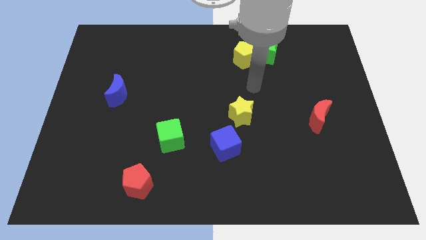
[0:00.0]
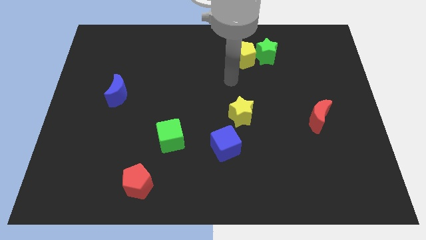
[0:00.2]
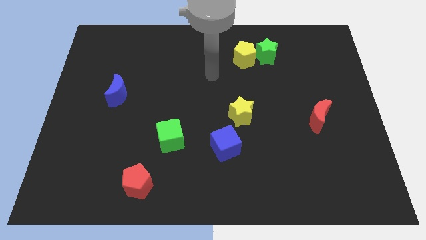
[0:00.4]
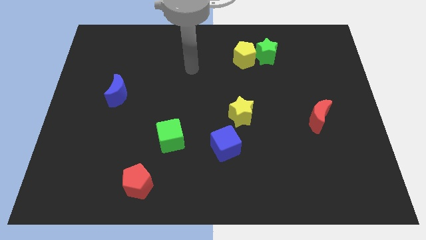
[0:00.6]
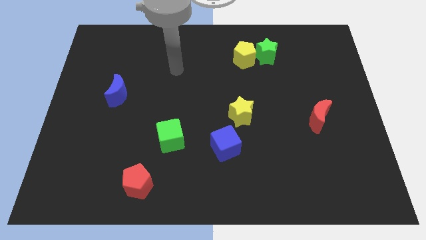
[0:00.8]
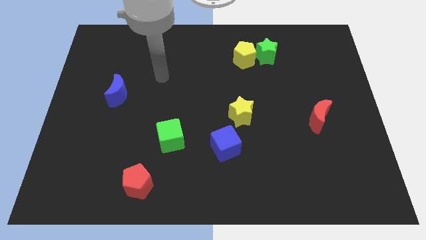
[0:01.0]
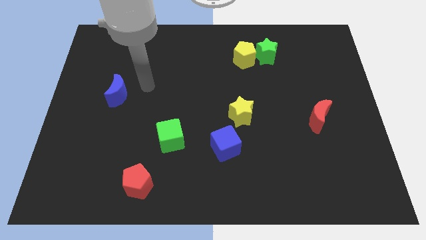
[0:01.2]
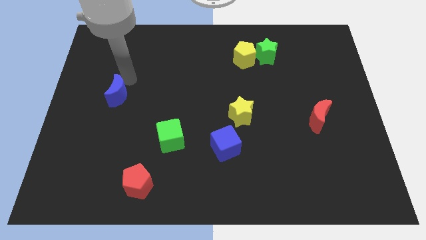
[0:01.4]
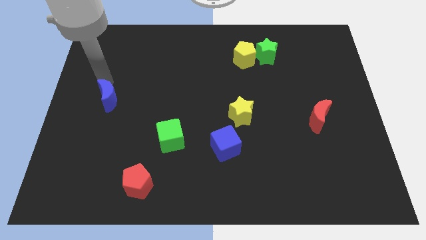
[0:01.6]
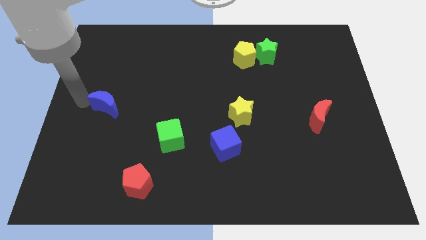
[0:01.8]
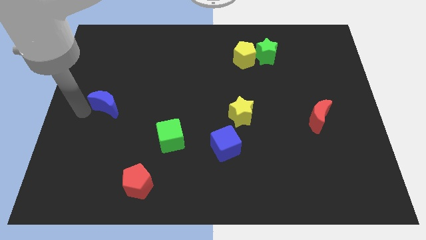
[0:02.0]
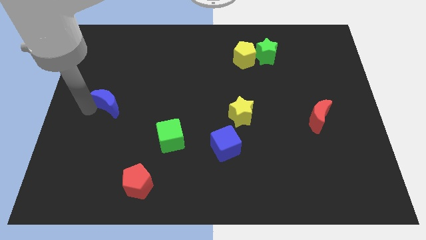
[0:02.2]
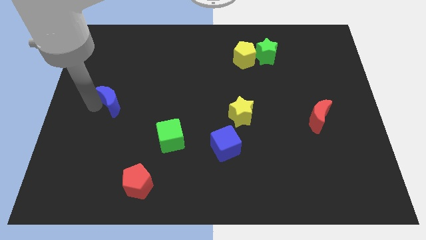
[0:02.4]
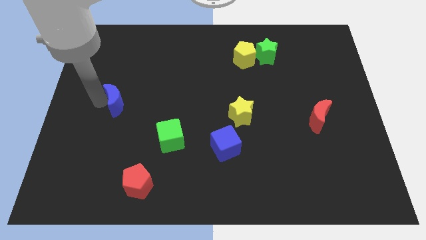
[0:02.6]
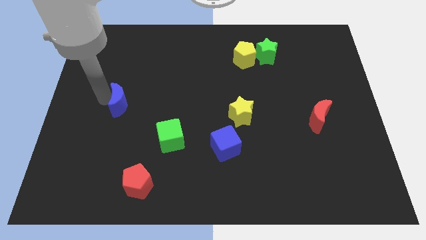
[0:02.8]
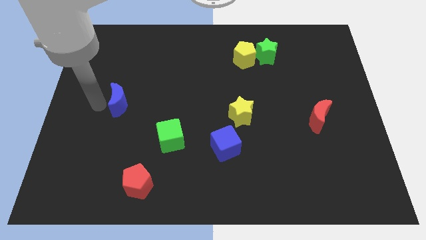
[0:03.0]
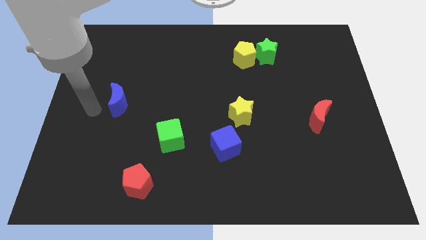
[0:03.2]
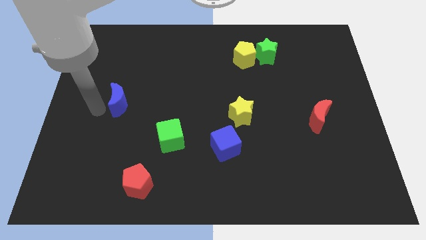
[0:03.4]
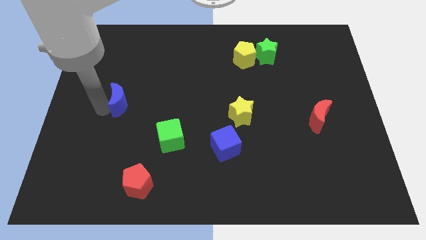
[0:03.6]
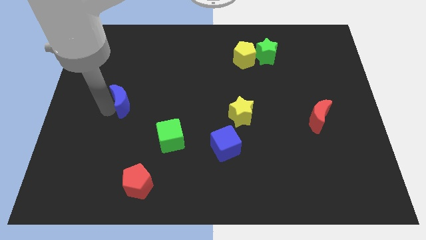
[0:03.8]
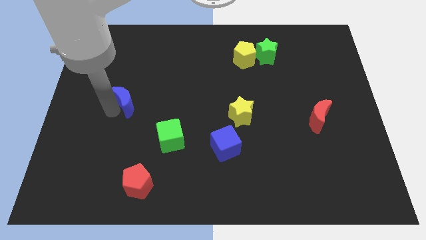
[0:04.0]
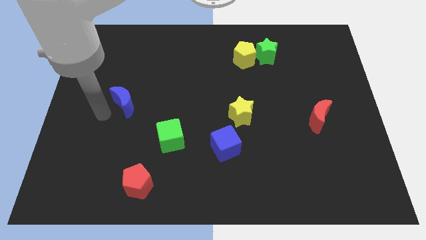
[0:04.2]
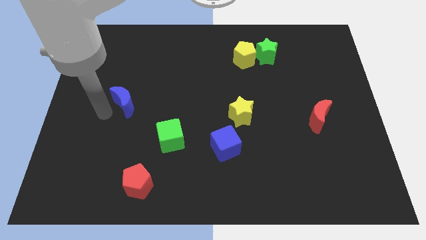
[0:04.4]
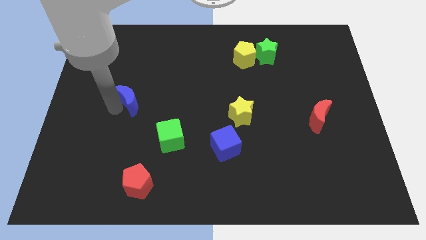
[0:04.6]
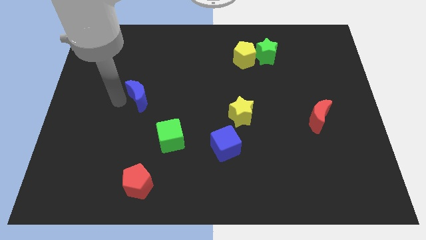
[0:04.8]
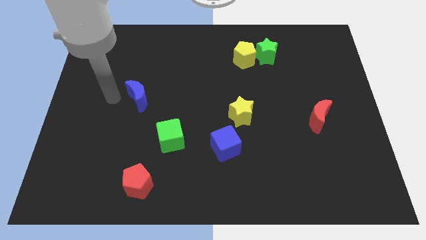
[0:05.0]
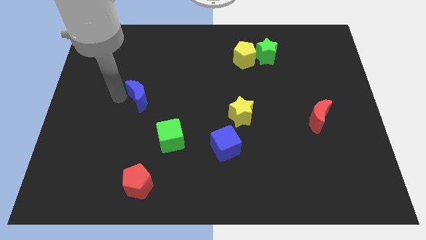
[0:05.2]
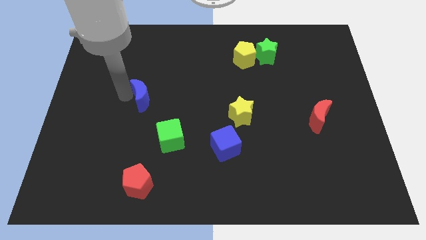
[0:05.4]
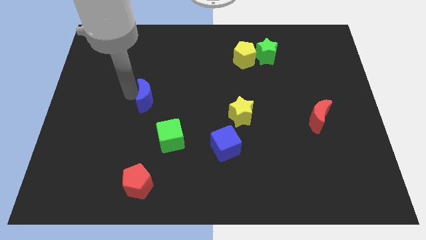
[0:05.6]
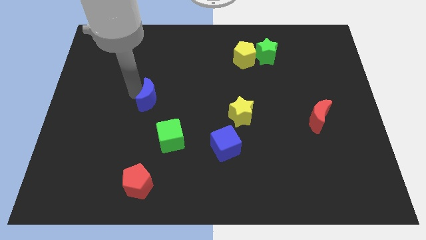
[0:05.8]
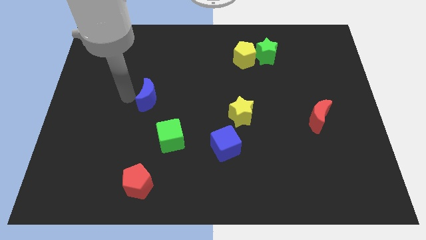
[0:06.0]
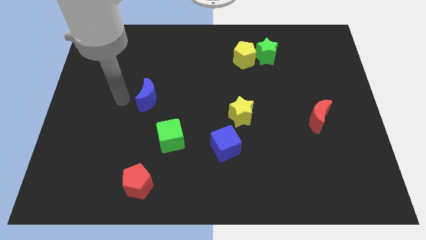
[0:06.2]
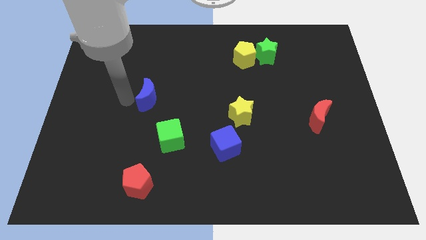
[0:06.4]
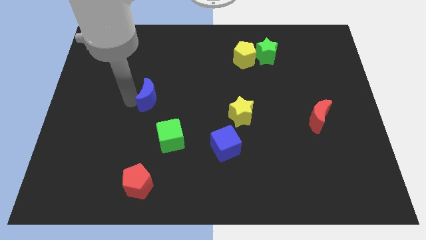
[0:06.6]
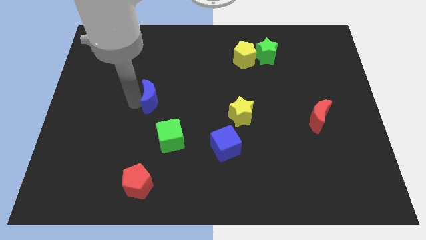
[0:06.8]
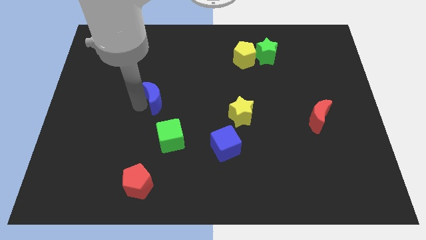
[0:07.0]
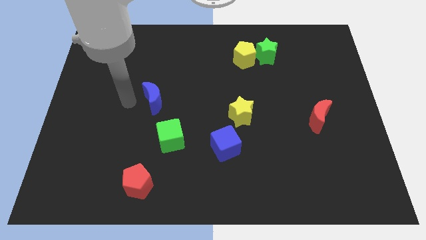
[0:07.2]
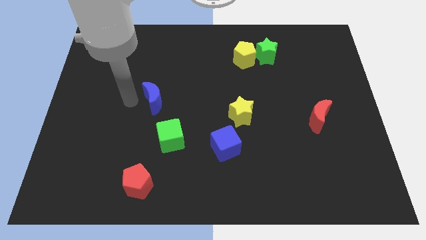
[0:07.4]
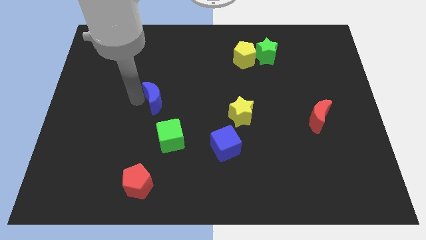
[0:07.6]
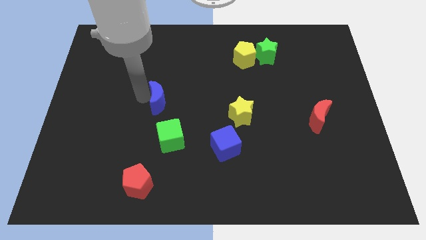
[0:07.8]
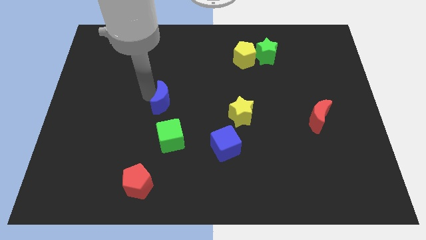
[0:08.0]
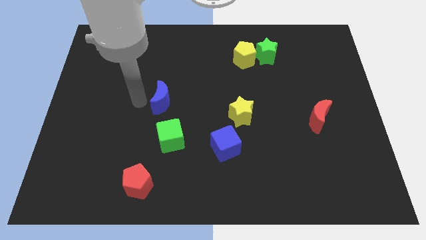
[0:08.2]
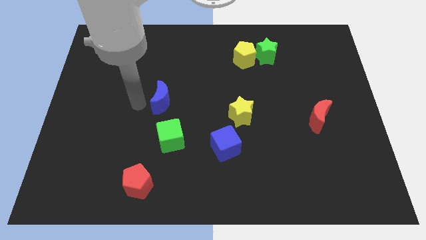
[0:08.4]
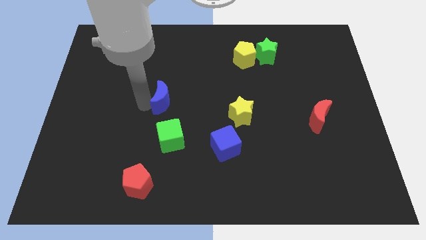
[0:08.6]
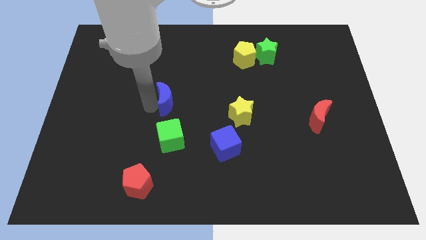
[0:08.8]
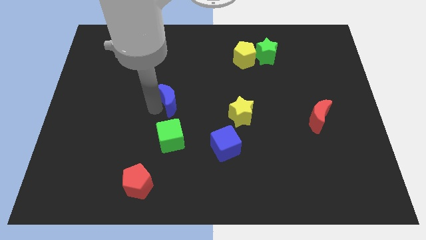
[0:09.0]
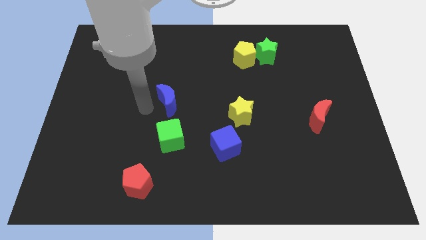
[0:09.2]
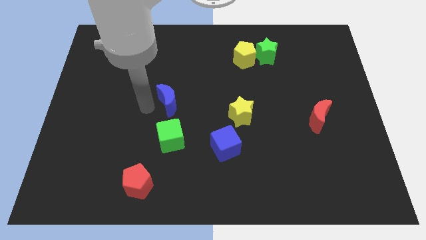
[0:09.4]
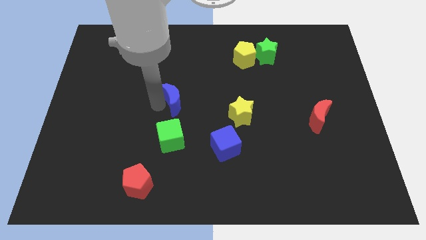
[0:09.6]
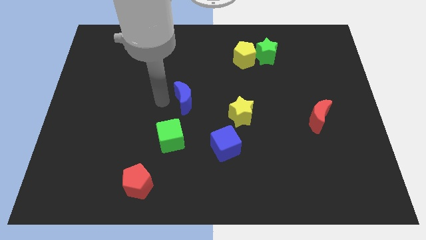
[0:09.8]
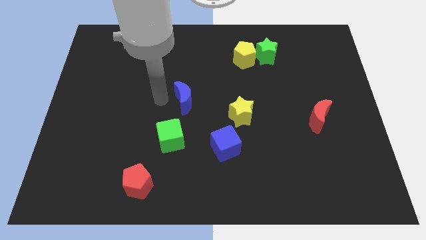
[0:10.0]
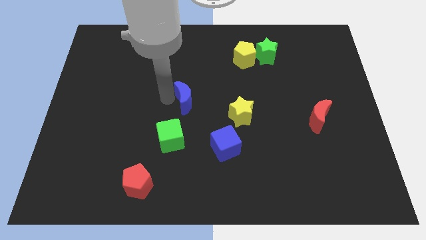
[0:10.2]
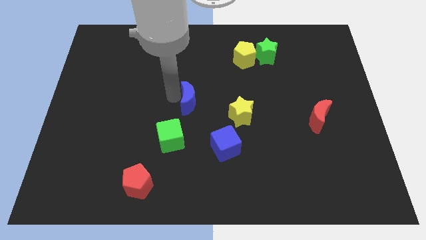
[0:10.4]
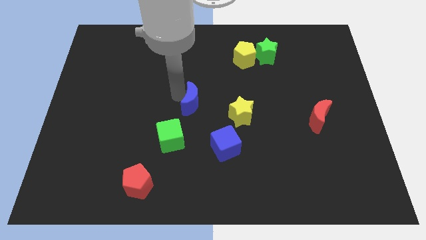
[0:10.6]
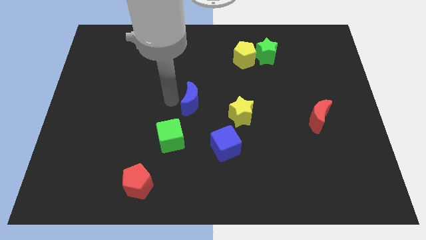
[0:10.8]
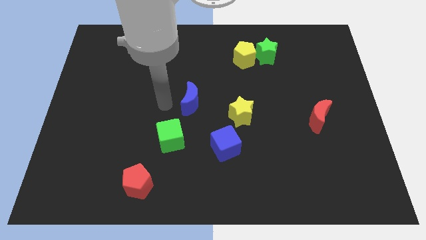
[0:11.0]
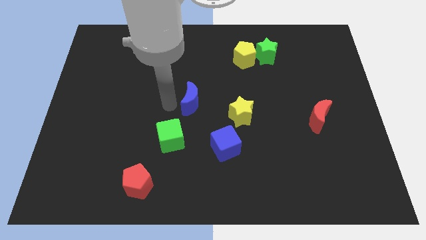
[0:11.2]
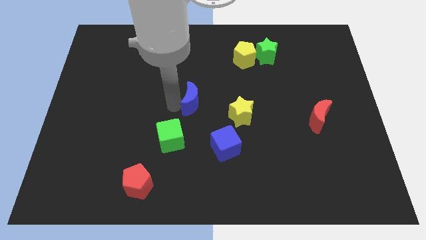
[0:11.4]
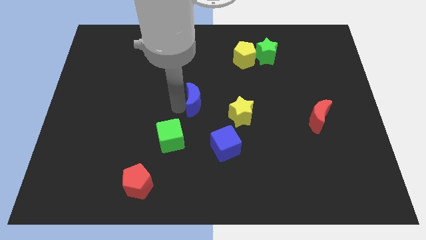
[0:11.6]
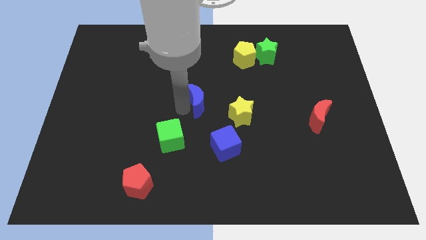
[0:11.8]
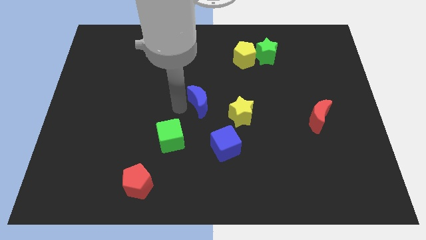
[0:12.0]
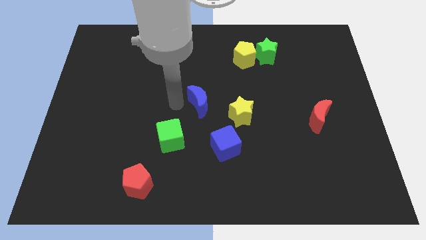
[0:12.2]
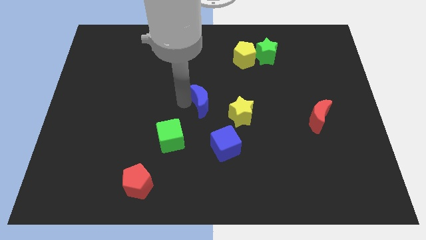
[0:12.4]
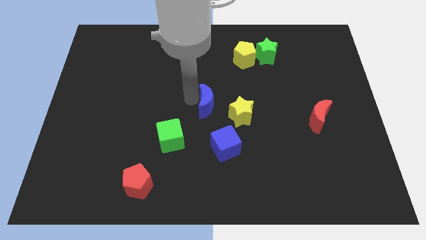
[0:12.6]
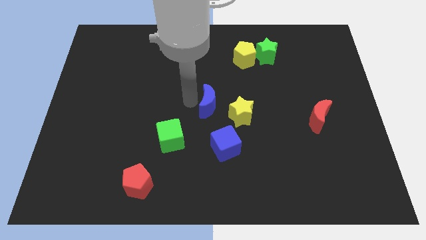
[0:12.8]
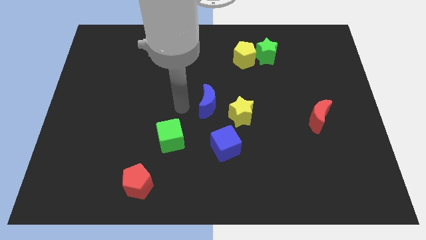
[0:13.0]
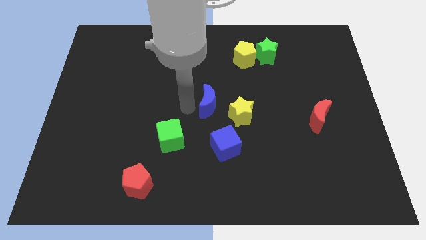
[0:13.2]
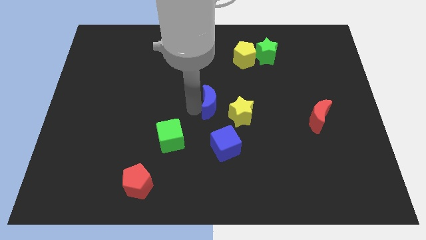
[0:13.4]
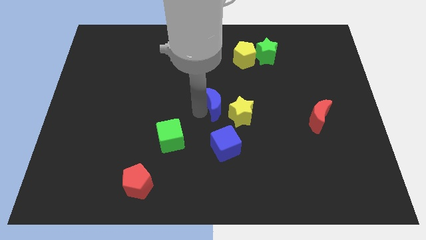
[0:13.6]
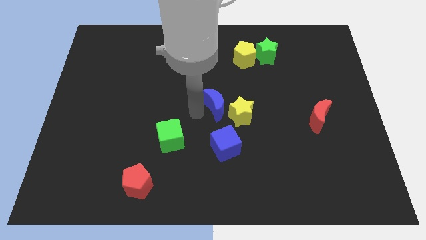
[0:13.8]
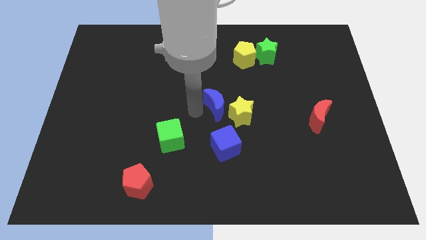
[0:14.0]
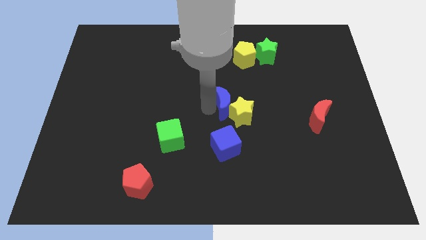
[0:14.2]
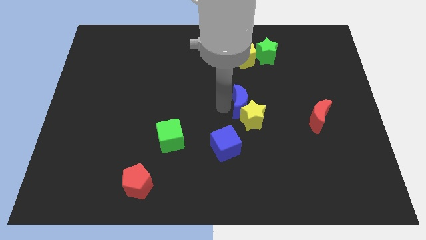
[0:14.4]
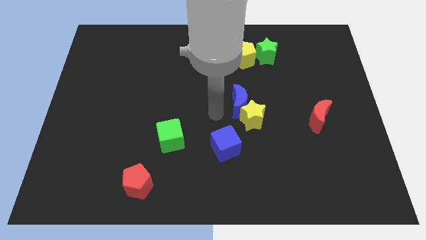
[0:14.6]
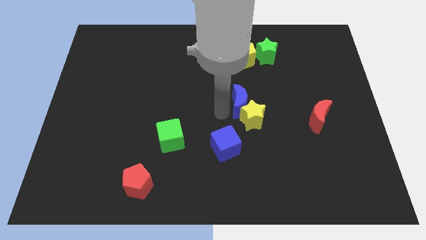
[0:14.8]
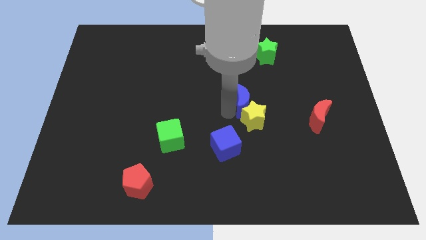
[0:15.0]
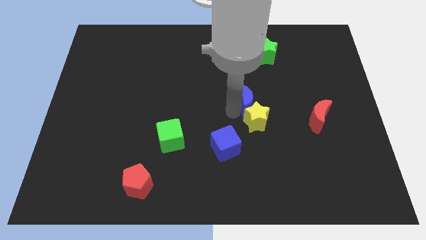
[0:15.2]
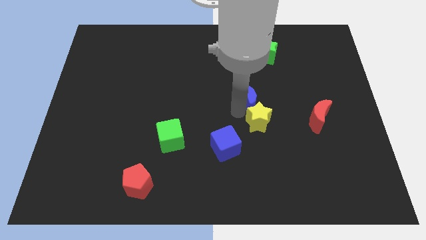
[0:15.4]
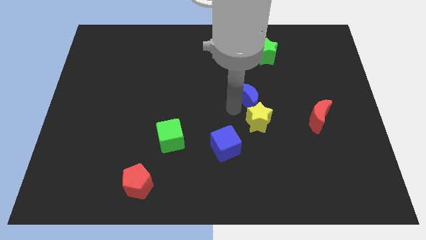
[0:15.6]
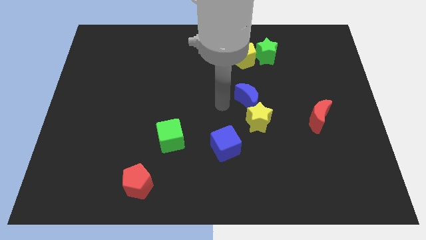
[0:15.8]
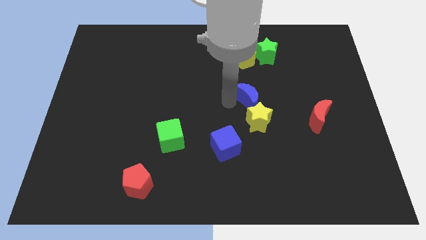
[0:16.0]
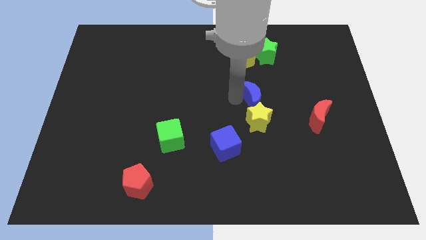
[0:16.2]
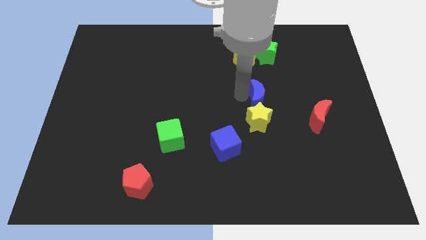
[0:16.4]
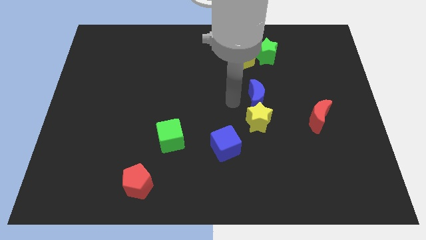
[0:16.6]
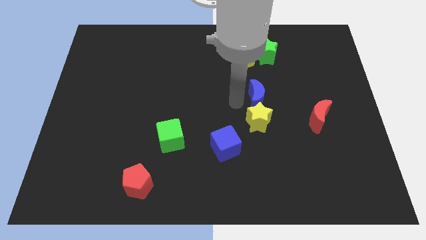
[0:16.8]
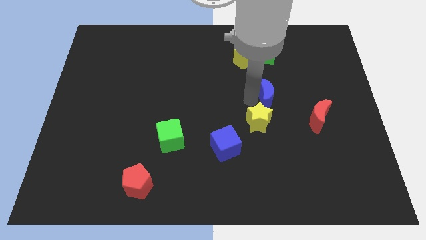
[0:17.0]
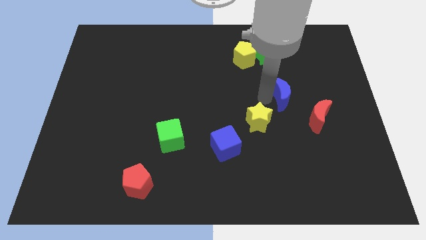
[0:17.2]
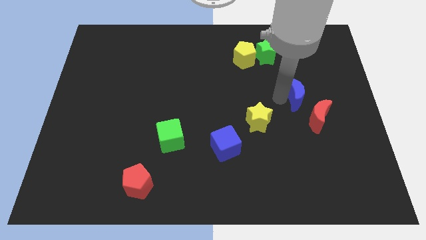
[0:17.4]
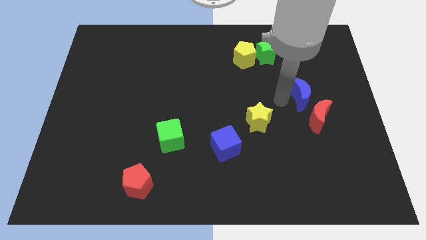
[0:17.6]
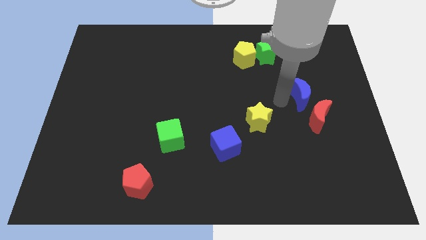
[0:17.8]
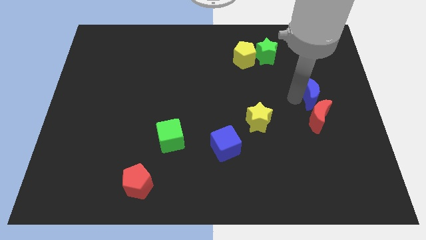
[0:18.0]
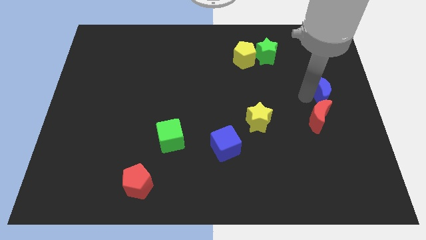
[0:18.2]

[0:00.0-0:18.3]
push the blue moon to the right side of the board
